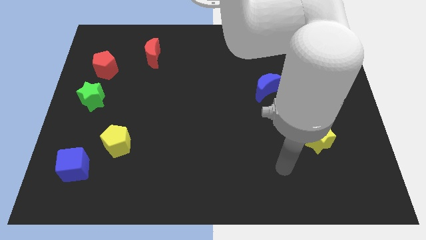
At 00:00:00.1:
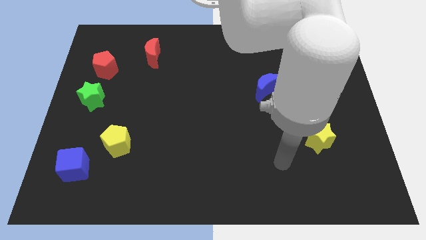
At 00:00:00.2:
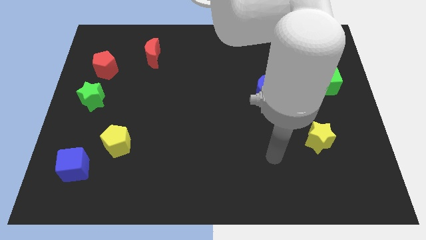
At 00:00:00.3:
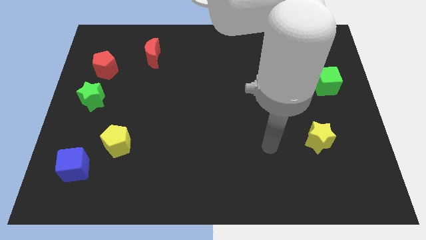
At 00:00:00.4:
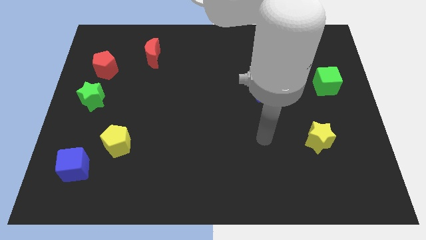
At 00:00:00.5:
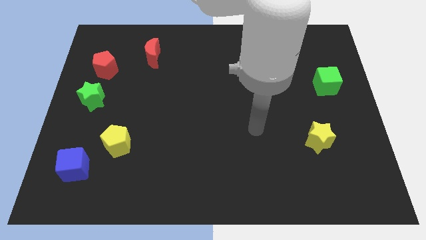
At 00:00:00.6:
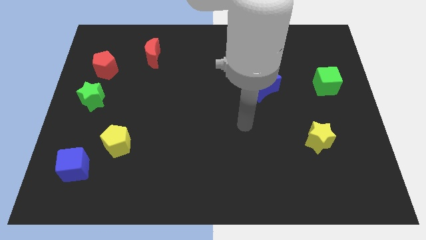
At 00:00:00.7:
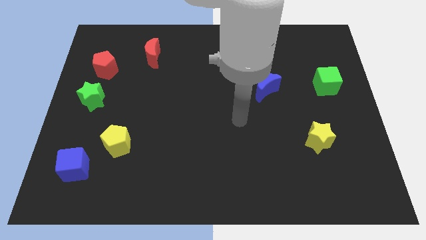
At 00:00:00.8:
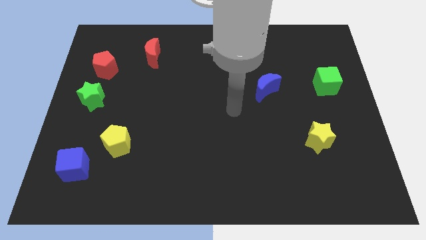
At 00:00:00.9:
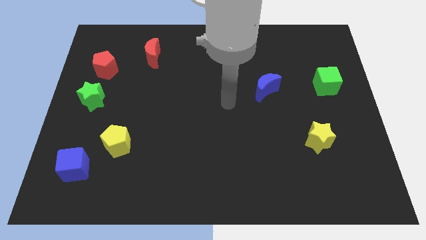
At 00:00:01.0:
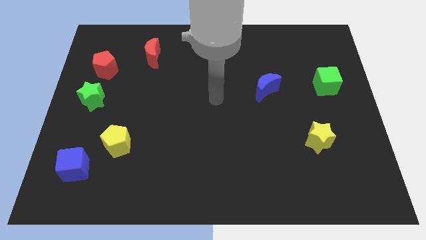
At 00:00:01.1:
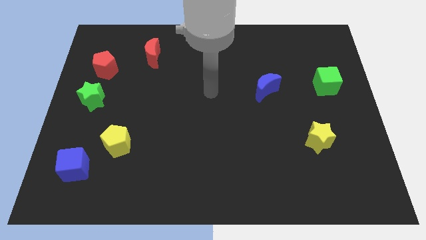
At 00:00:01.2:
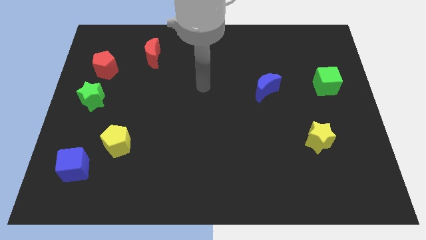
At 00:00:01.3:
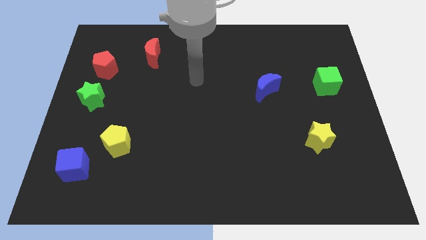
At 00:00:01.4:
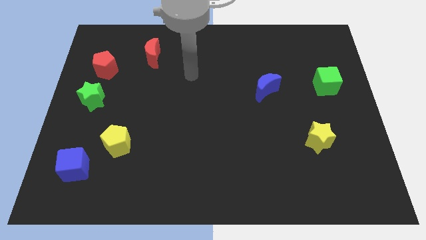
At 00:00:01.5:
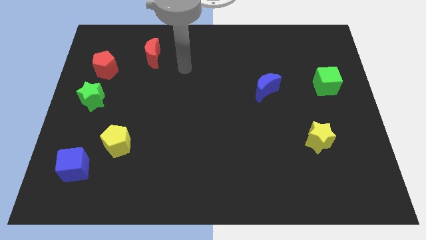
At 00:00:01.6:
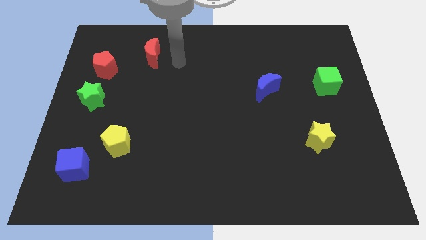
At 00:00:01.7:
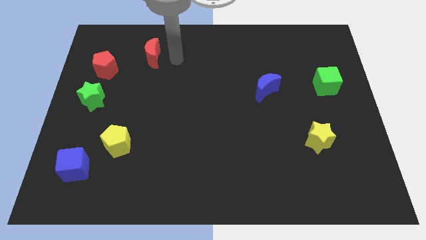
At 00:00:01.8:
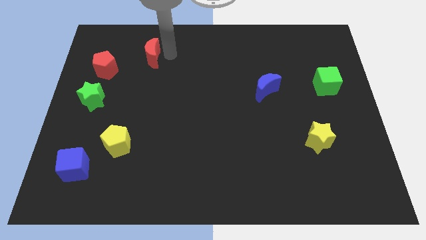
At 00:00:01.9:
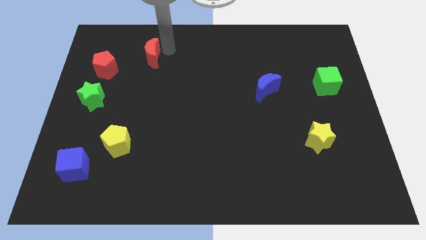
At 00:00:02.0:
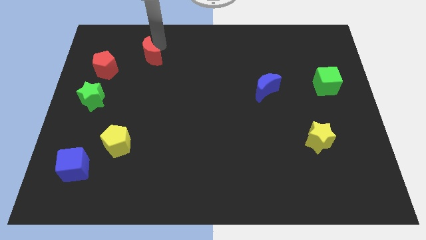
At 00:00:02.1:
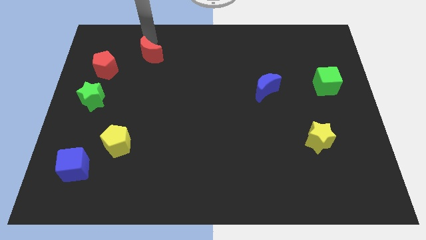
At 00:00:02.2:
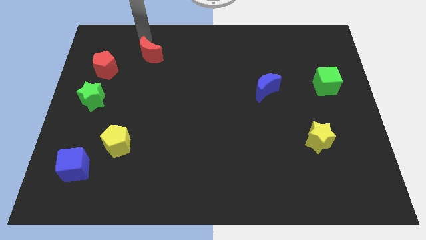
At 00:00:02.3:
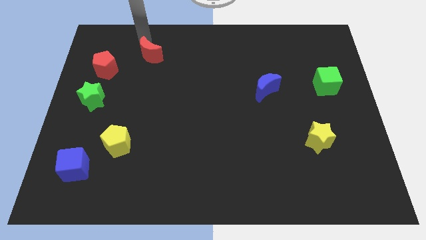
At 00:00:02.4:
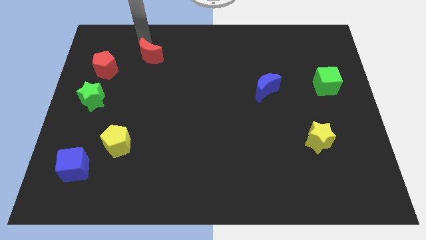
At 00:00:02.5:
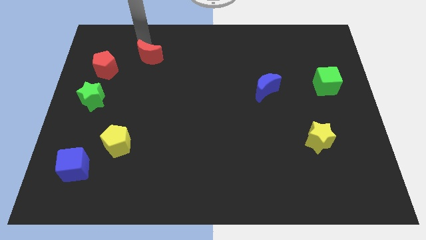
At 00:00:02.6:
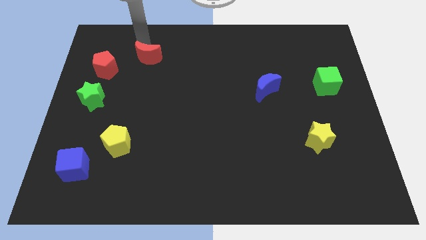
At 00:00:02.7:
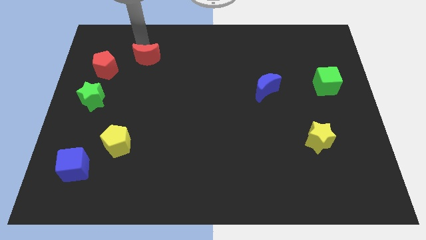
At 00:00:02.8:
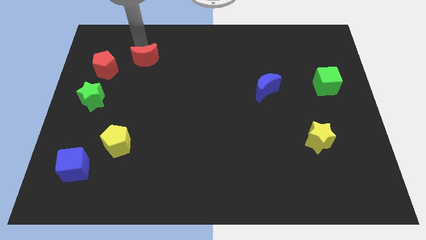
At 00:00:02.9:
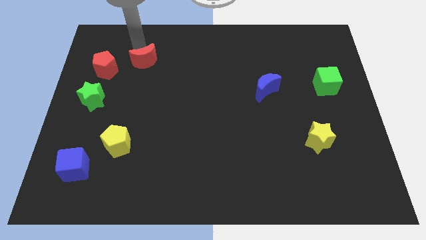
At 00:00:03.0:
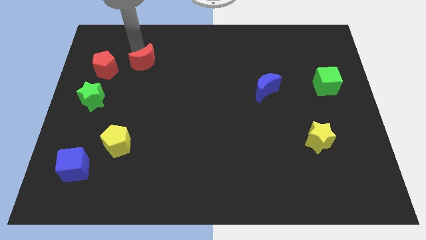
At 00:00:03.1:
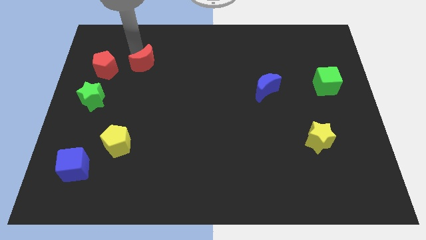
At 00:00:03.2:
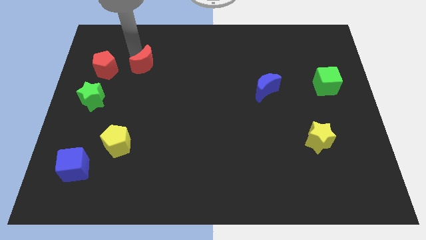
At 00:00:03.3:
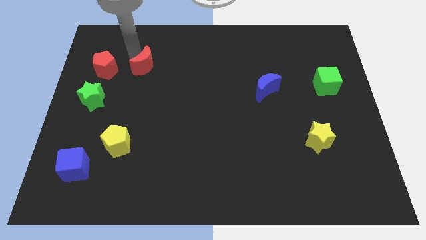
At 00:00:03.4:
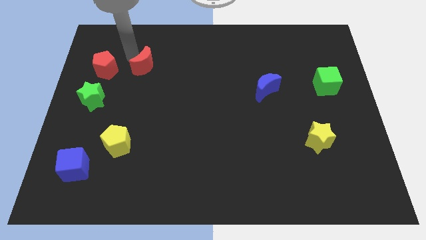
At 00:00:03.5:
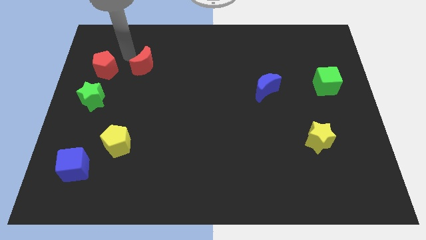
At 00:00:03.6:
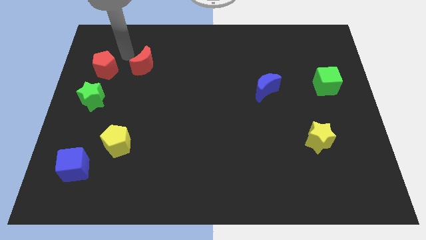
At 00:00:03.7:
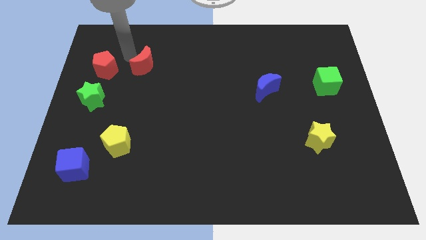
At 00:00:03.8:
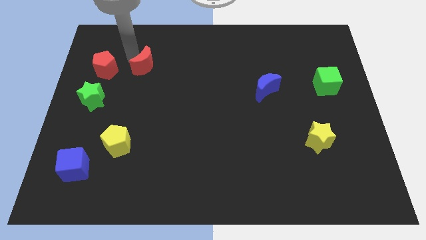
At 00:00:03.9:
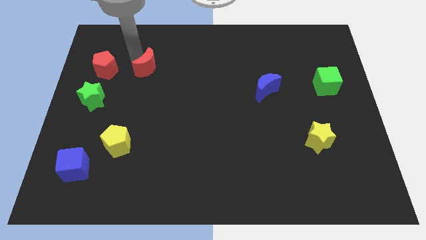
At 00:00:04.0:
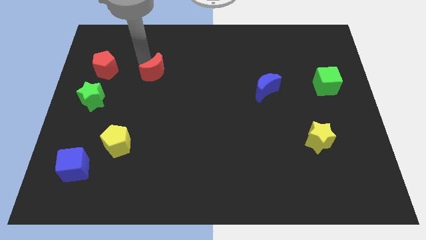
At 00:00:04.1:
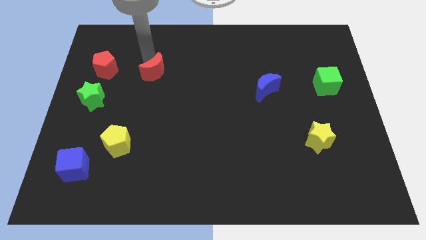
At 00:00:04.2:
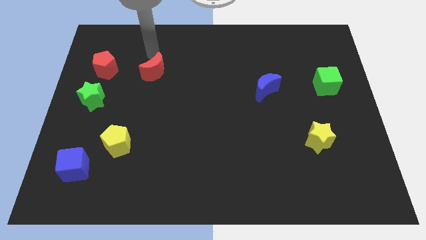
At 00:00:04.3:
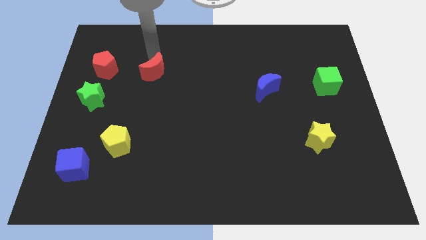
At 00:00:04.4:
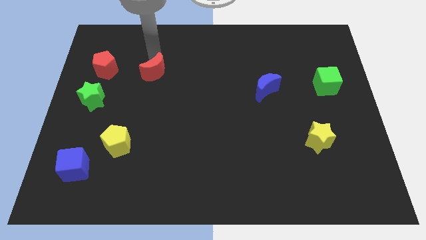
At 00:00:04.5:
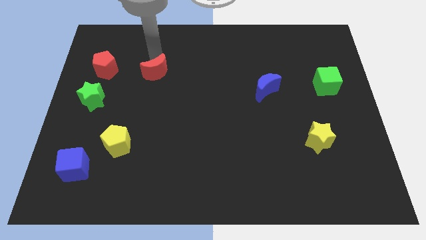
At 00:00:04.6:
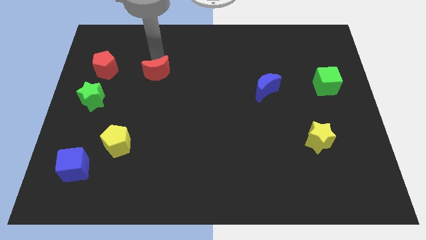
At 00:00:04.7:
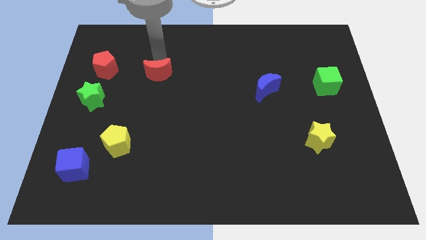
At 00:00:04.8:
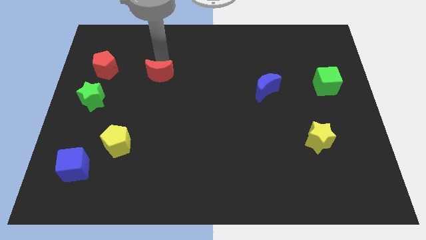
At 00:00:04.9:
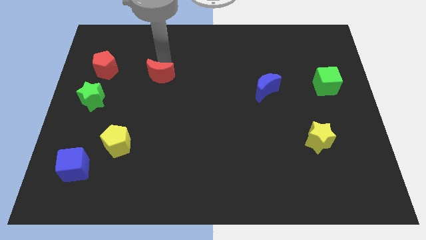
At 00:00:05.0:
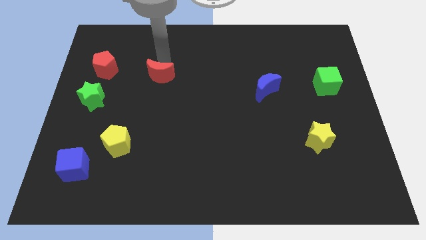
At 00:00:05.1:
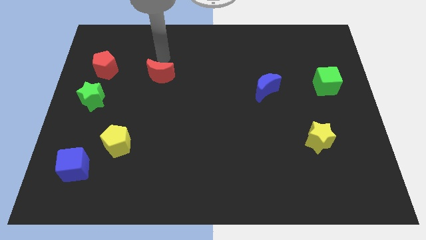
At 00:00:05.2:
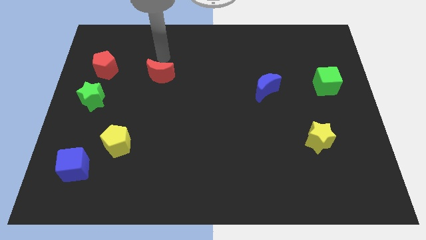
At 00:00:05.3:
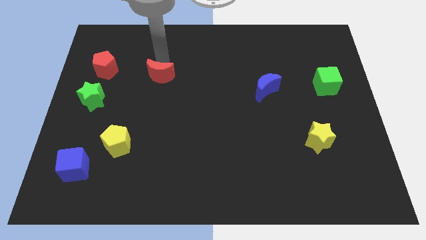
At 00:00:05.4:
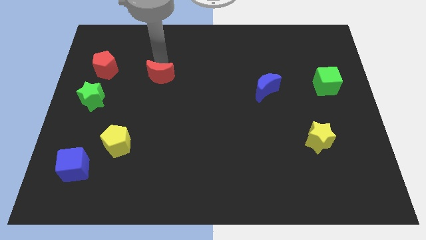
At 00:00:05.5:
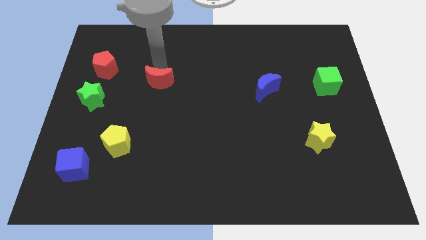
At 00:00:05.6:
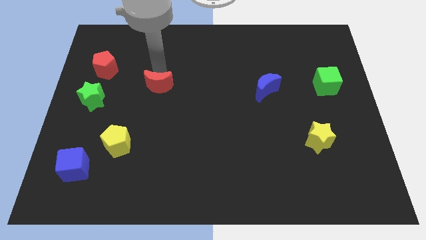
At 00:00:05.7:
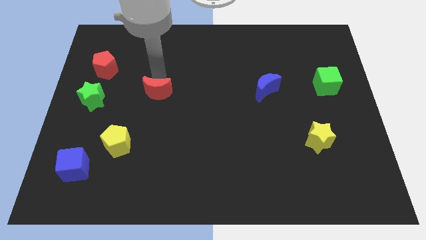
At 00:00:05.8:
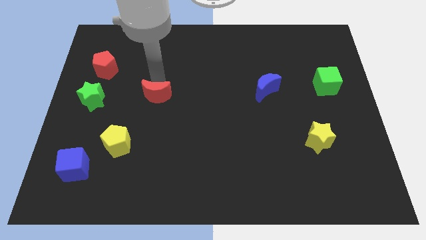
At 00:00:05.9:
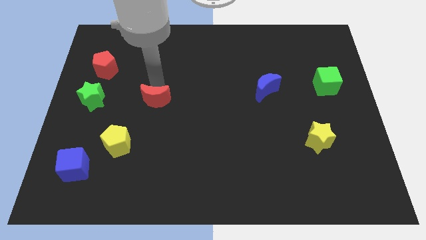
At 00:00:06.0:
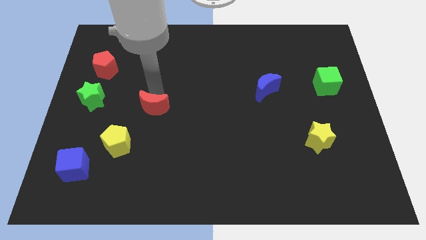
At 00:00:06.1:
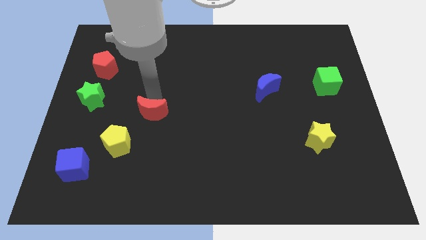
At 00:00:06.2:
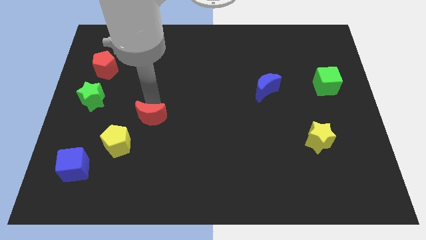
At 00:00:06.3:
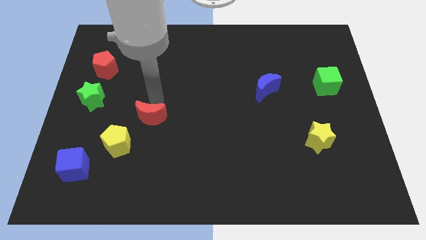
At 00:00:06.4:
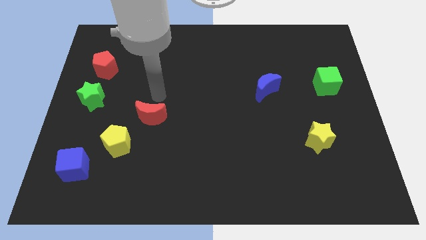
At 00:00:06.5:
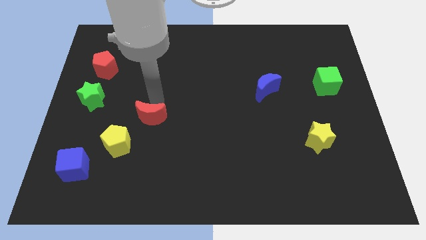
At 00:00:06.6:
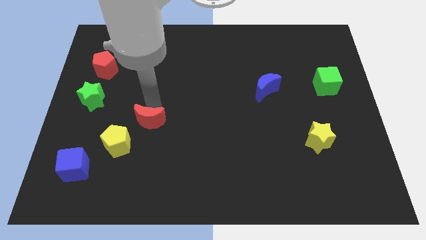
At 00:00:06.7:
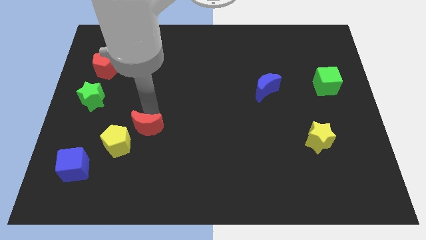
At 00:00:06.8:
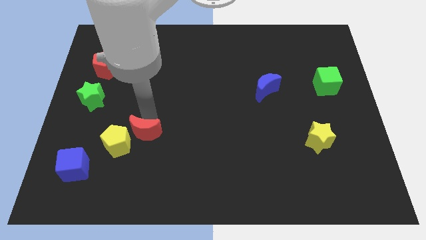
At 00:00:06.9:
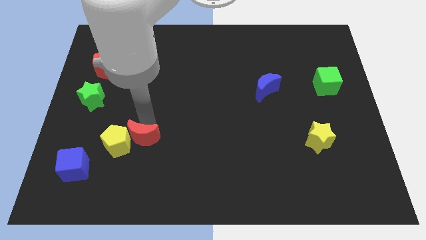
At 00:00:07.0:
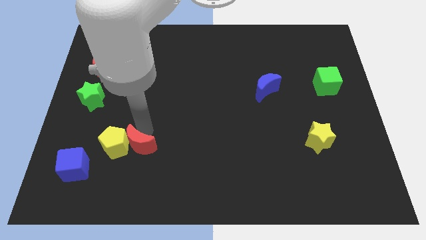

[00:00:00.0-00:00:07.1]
slide the red moon diagonally down and to the right of the yellow pentagon
